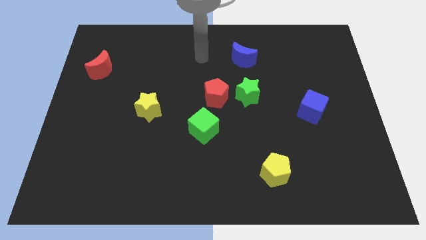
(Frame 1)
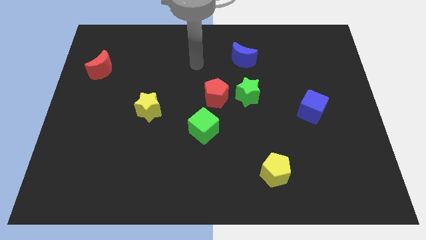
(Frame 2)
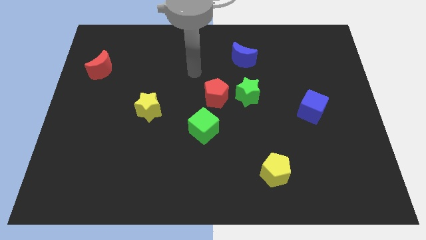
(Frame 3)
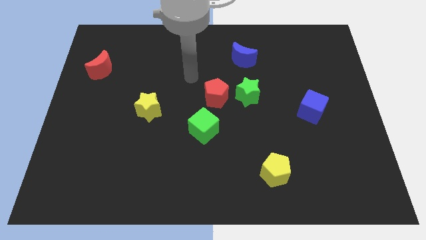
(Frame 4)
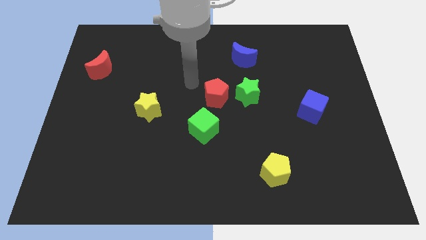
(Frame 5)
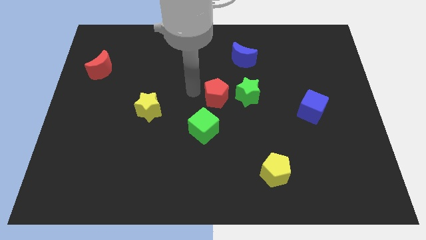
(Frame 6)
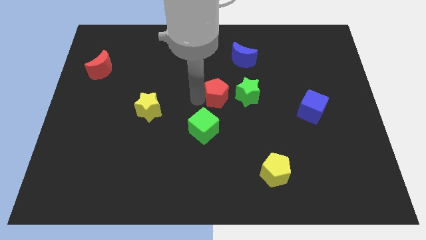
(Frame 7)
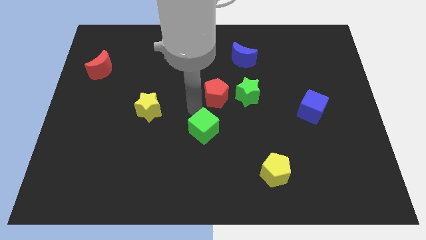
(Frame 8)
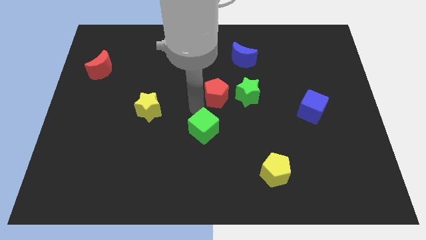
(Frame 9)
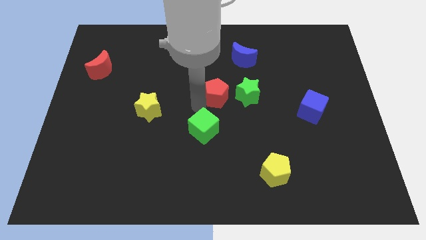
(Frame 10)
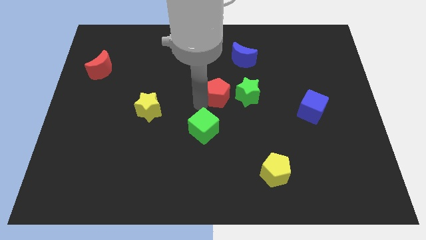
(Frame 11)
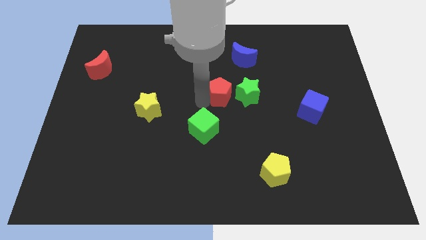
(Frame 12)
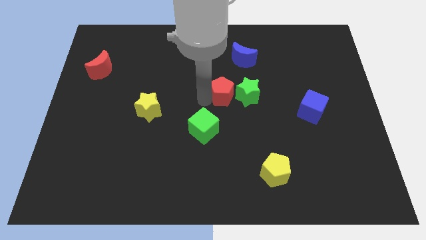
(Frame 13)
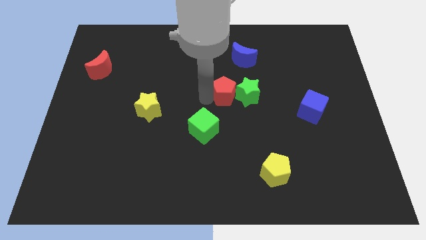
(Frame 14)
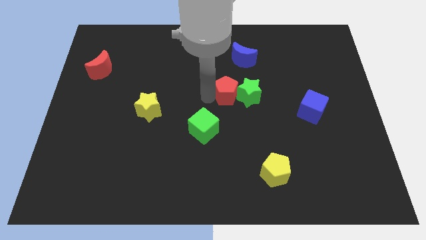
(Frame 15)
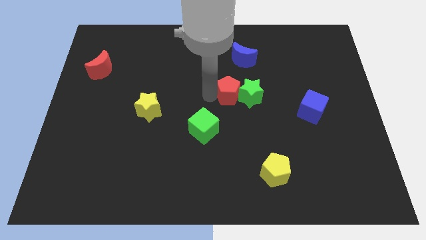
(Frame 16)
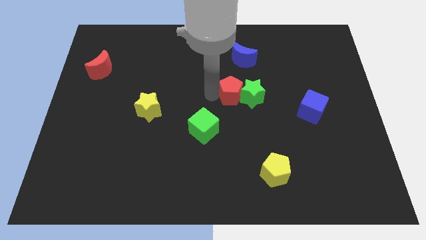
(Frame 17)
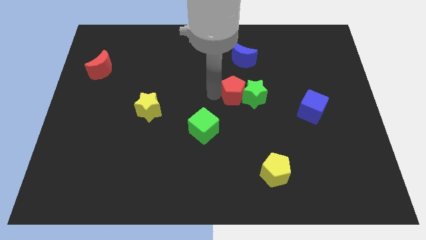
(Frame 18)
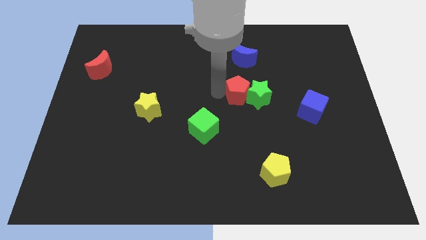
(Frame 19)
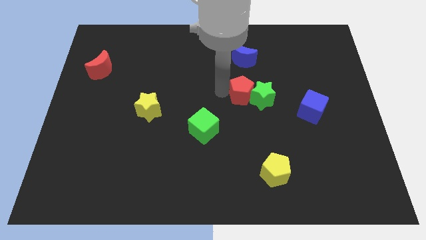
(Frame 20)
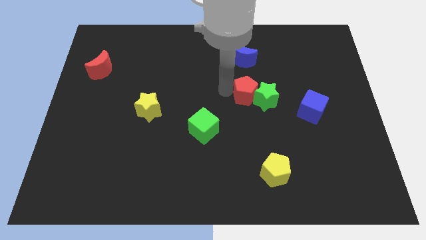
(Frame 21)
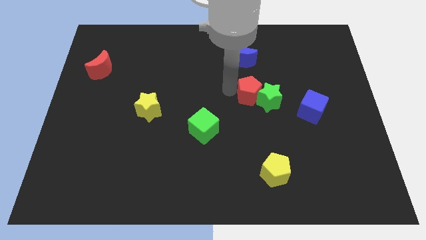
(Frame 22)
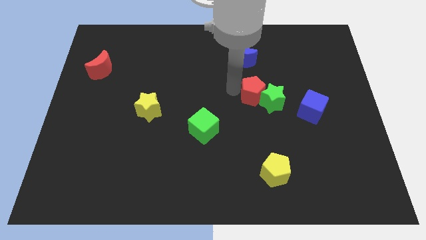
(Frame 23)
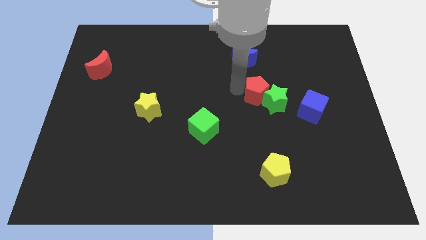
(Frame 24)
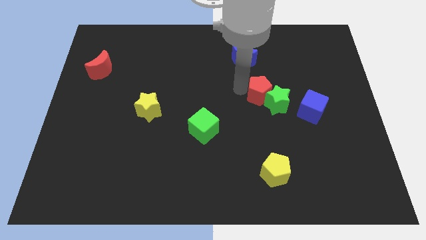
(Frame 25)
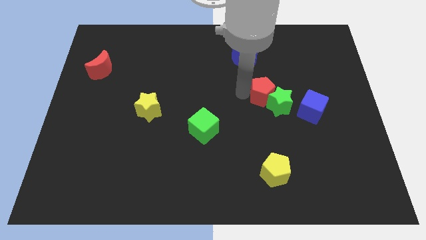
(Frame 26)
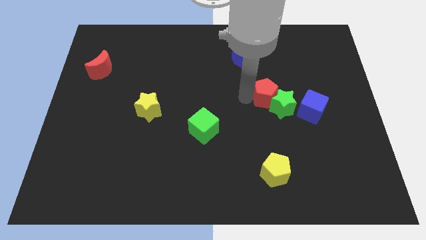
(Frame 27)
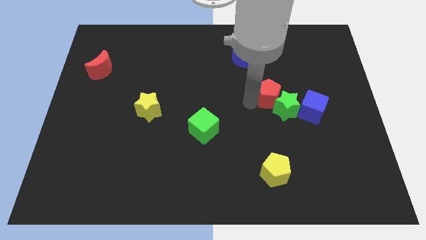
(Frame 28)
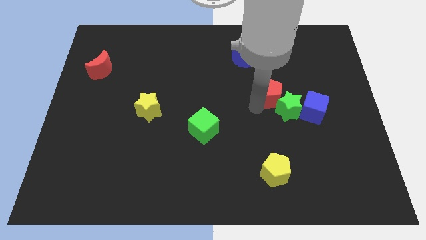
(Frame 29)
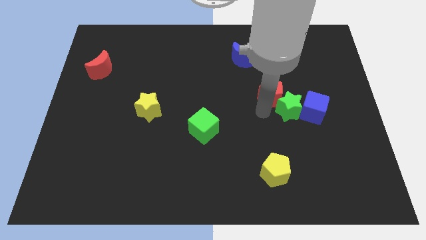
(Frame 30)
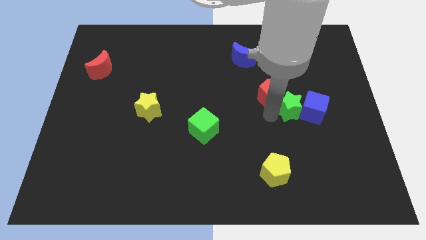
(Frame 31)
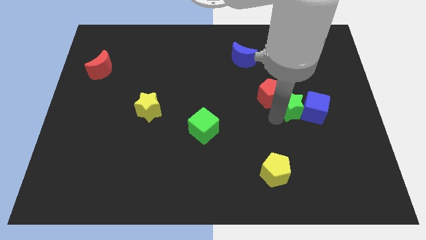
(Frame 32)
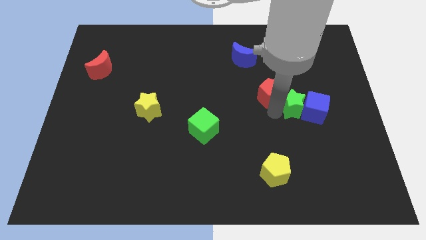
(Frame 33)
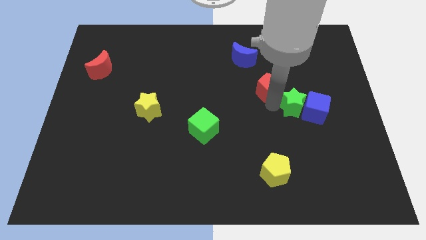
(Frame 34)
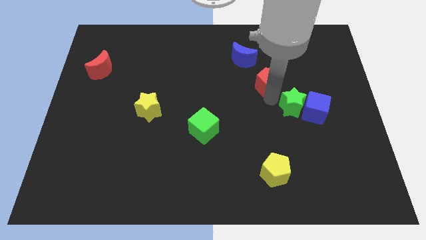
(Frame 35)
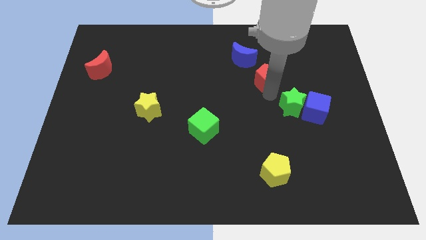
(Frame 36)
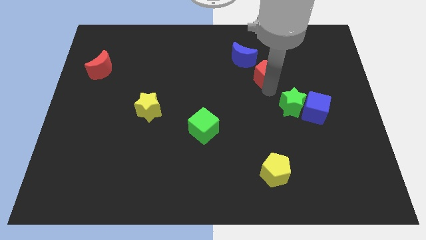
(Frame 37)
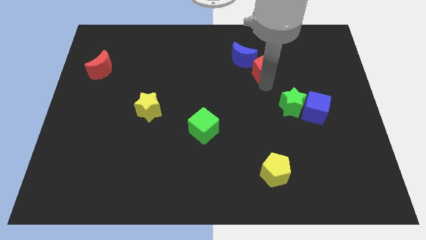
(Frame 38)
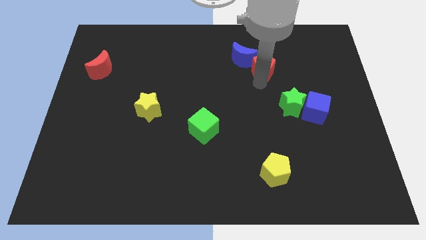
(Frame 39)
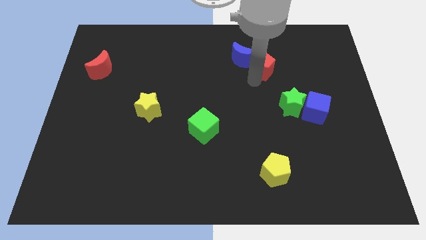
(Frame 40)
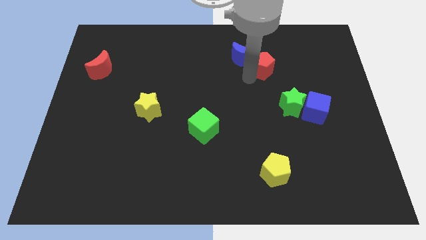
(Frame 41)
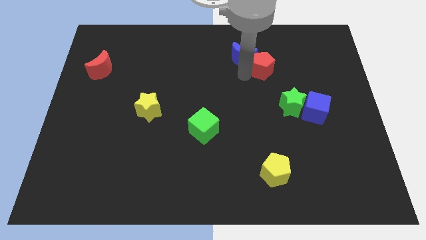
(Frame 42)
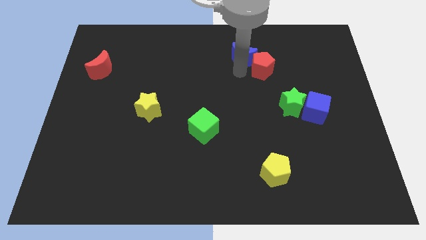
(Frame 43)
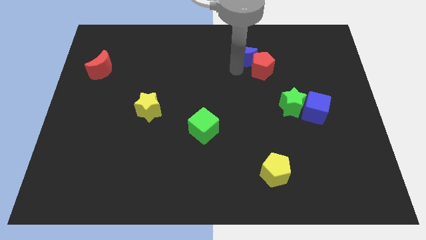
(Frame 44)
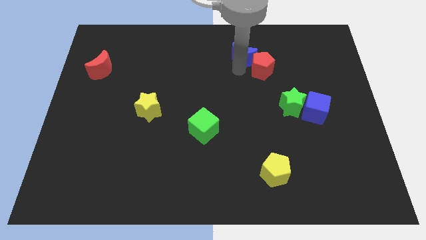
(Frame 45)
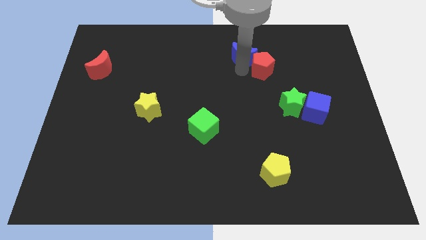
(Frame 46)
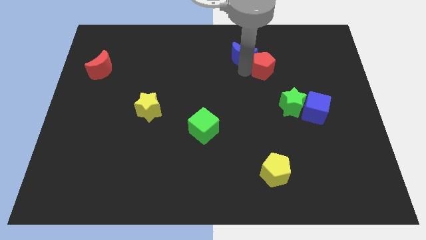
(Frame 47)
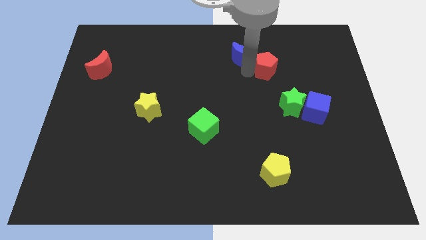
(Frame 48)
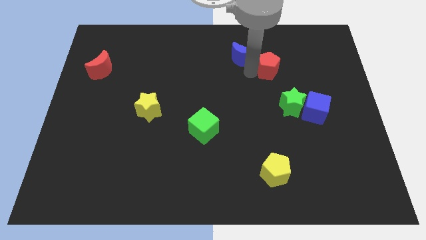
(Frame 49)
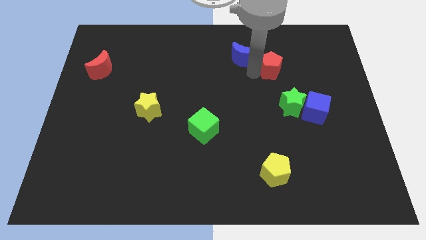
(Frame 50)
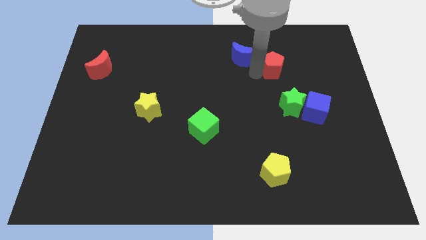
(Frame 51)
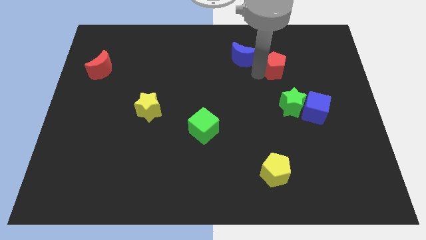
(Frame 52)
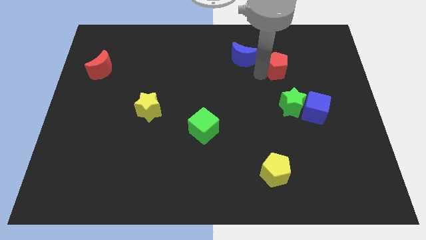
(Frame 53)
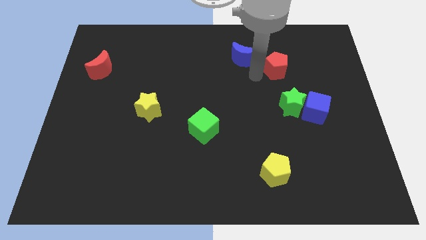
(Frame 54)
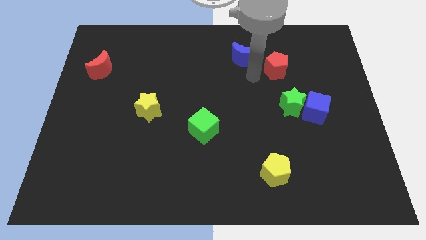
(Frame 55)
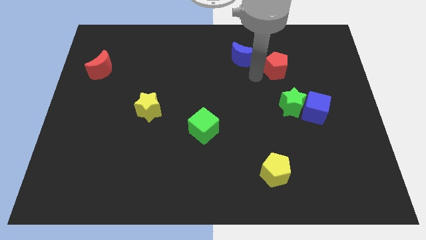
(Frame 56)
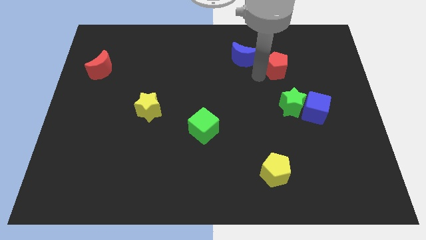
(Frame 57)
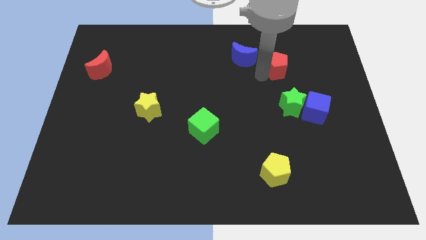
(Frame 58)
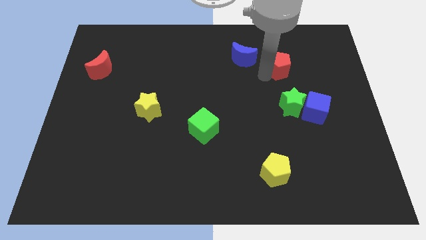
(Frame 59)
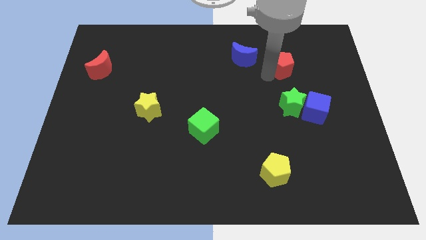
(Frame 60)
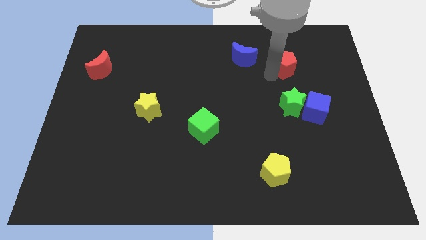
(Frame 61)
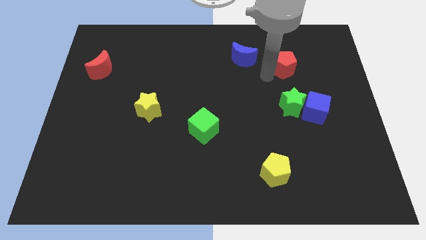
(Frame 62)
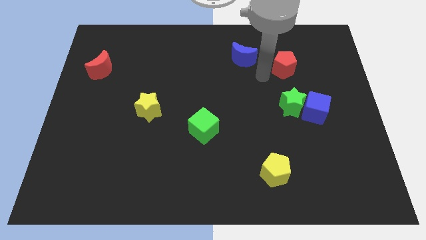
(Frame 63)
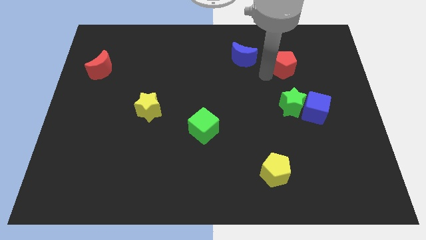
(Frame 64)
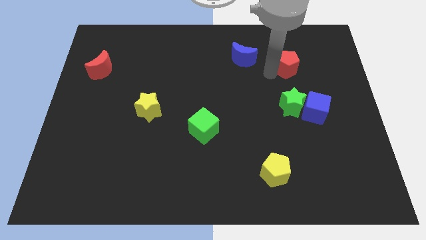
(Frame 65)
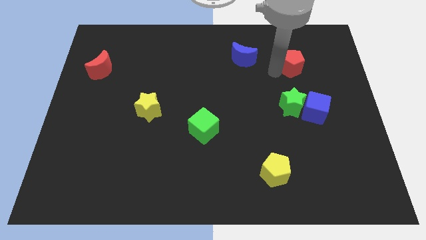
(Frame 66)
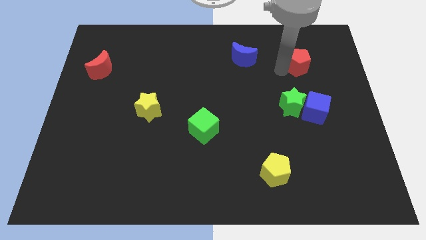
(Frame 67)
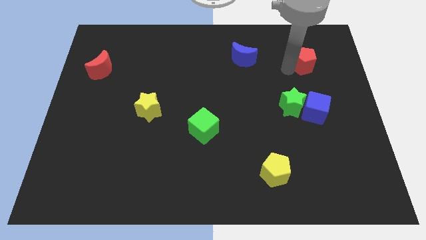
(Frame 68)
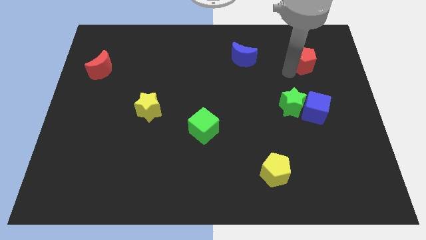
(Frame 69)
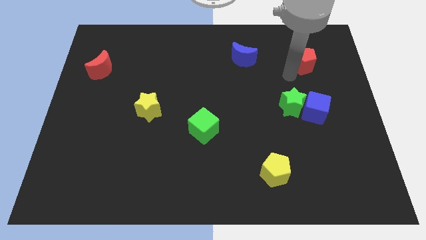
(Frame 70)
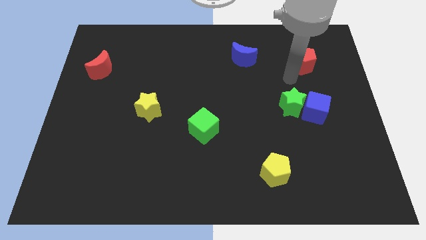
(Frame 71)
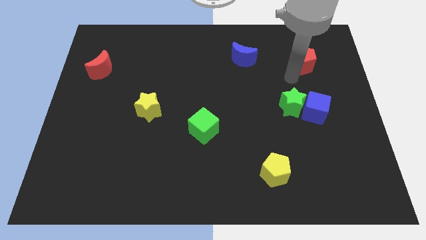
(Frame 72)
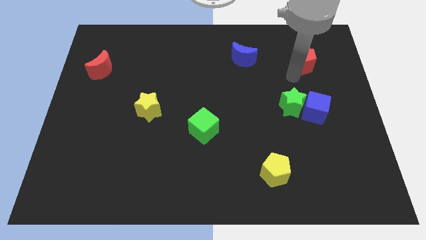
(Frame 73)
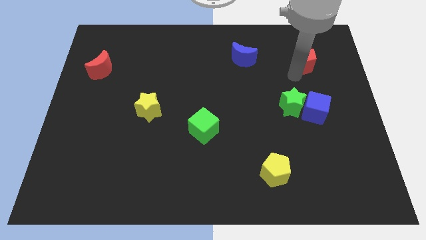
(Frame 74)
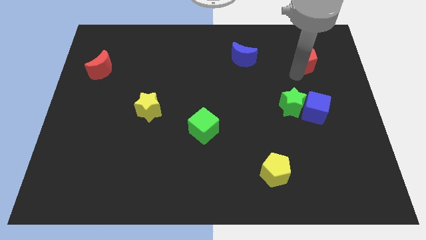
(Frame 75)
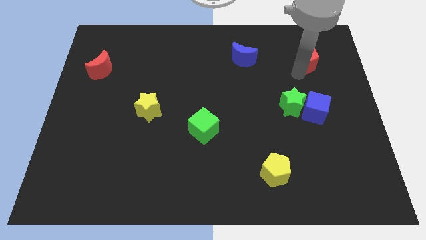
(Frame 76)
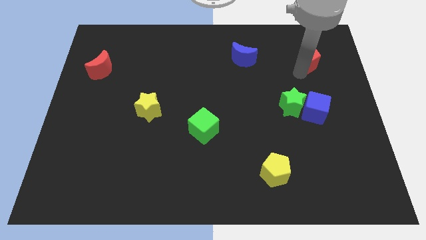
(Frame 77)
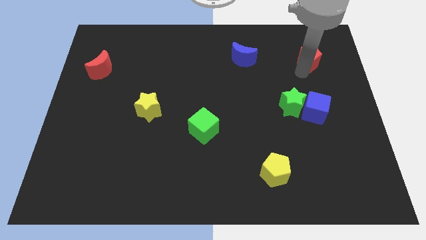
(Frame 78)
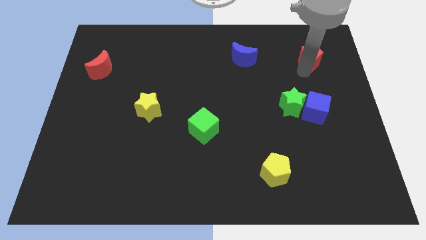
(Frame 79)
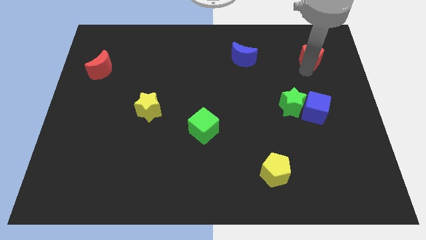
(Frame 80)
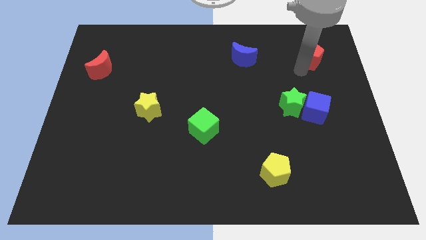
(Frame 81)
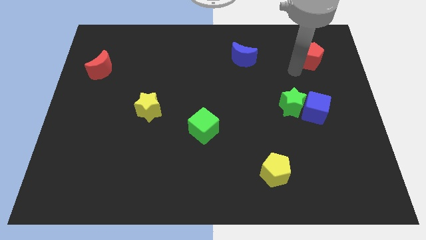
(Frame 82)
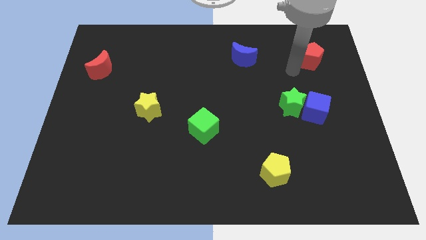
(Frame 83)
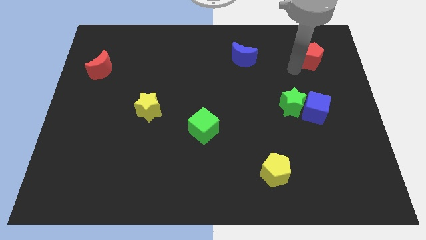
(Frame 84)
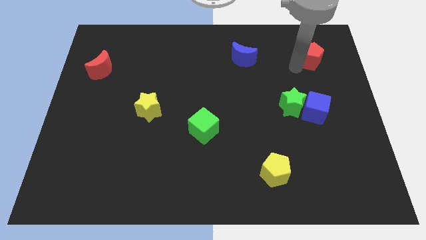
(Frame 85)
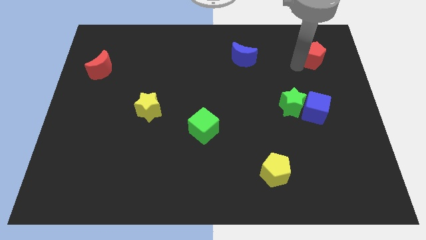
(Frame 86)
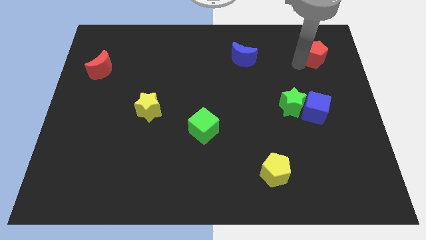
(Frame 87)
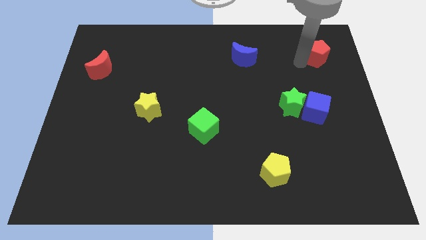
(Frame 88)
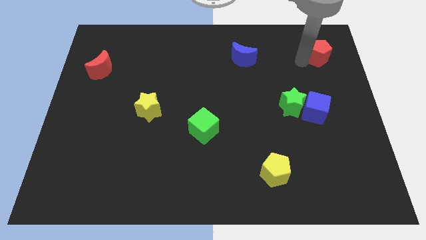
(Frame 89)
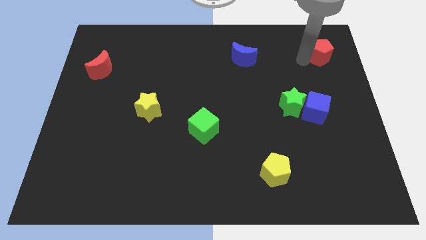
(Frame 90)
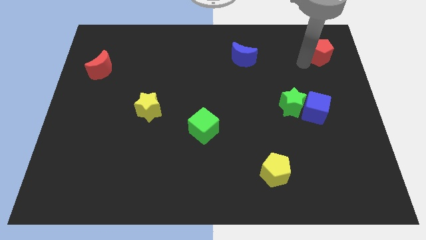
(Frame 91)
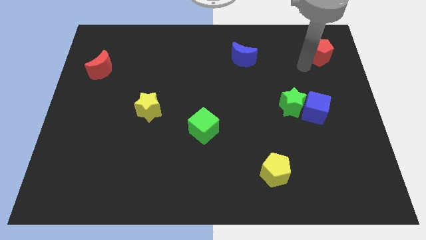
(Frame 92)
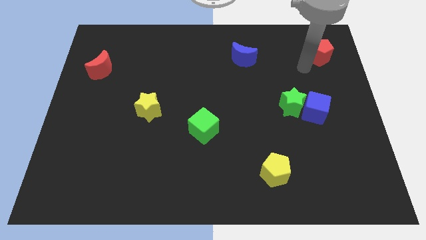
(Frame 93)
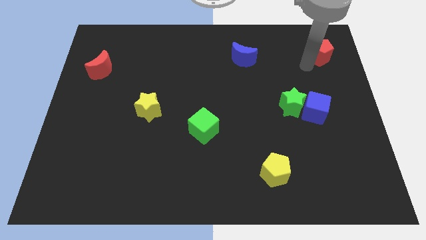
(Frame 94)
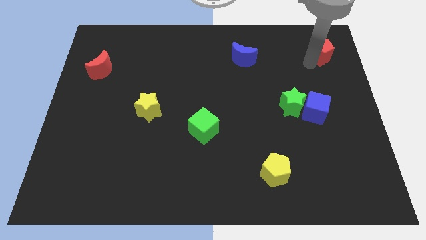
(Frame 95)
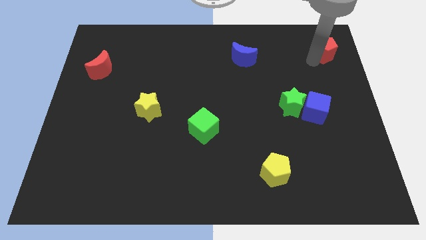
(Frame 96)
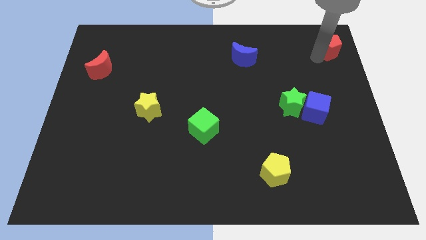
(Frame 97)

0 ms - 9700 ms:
put the red pentagon to the top right
